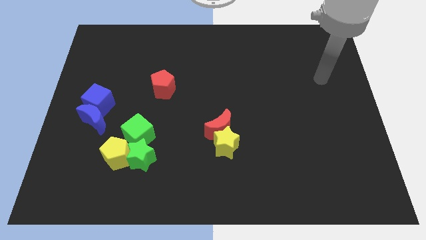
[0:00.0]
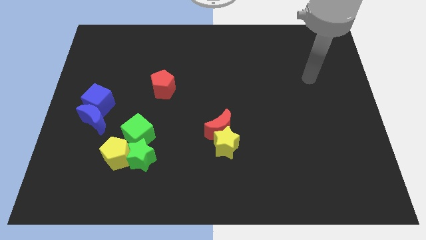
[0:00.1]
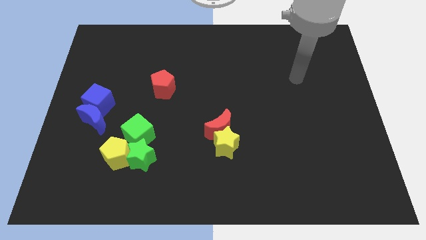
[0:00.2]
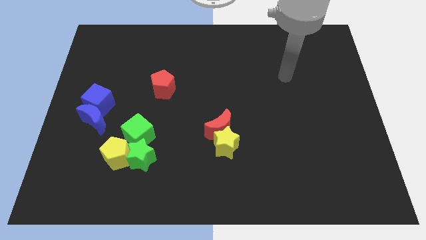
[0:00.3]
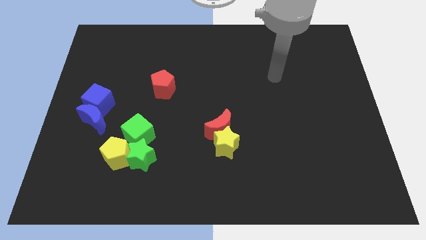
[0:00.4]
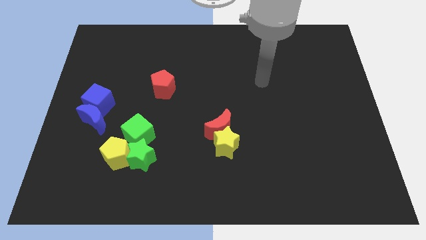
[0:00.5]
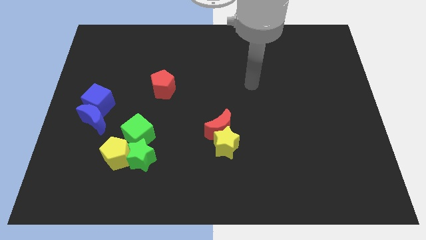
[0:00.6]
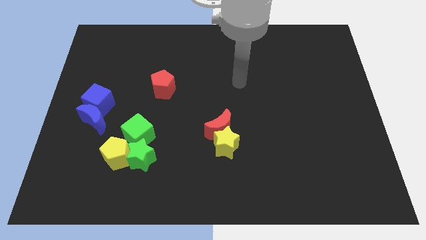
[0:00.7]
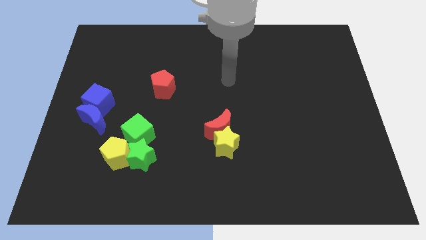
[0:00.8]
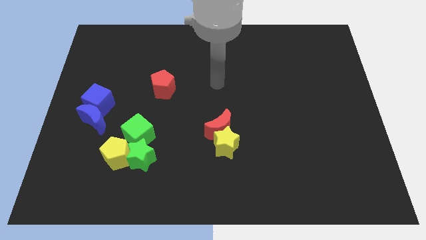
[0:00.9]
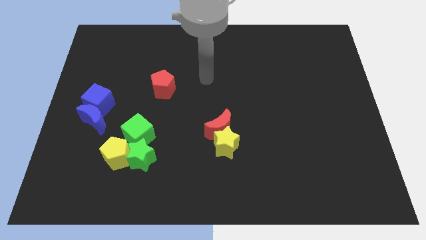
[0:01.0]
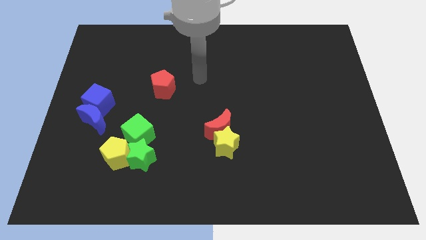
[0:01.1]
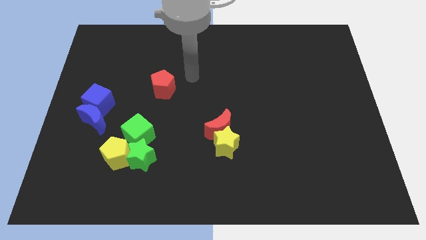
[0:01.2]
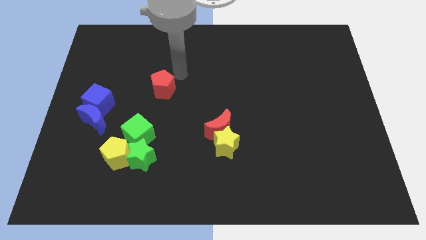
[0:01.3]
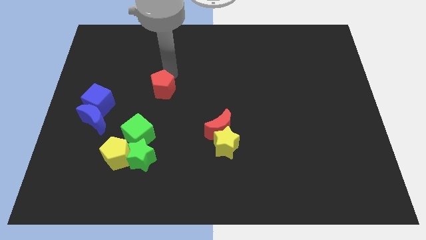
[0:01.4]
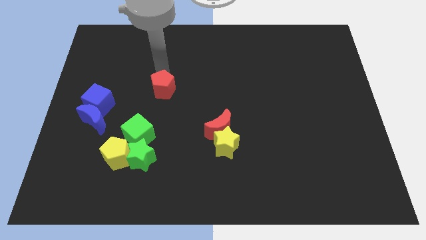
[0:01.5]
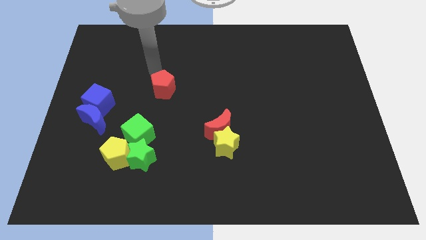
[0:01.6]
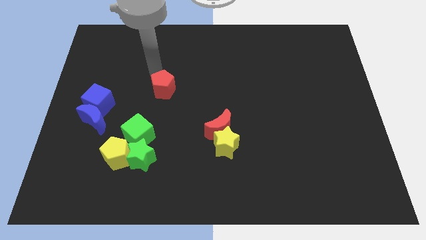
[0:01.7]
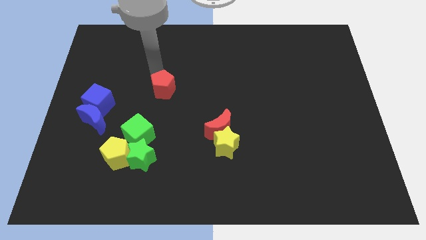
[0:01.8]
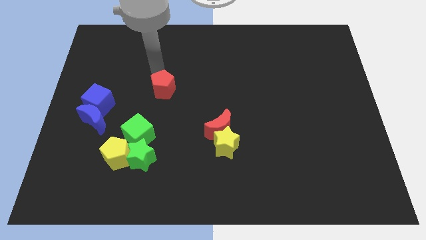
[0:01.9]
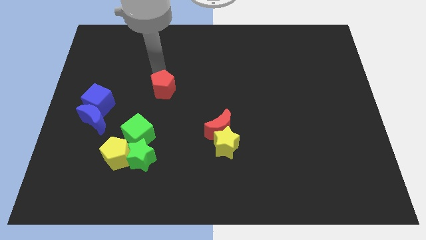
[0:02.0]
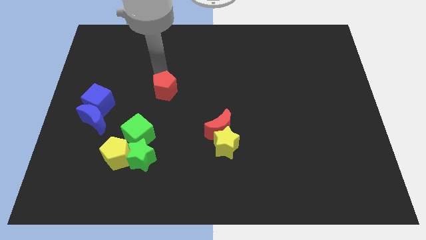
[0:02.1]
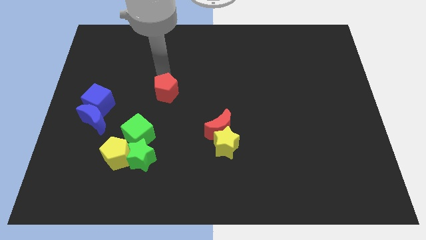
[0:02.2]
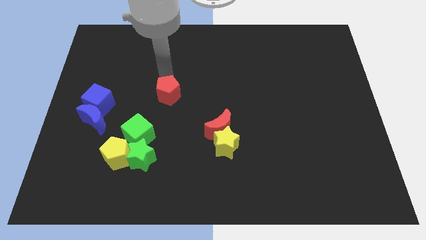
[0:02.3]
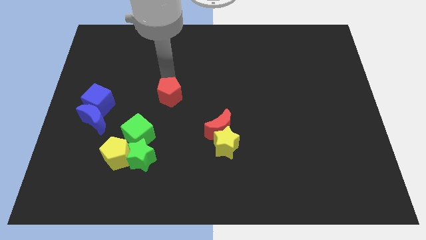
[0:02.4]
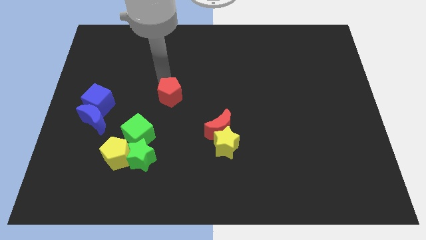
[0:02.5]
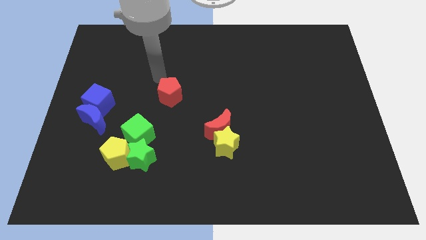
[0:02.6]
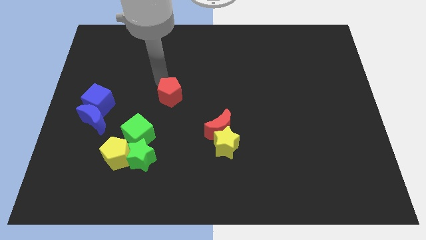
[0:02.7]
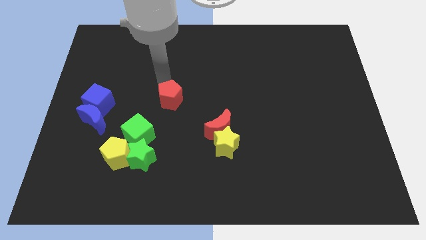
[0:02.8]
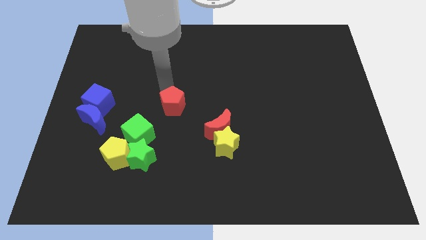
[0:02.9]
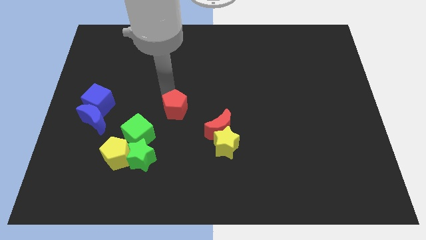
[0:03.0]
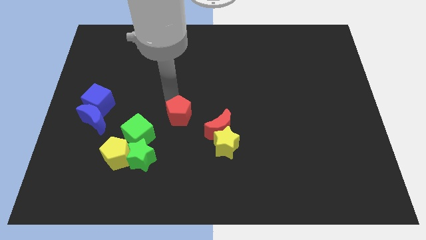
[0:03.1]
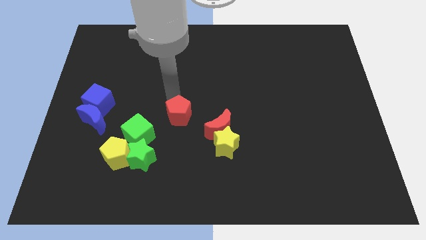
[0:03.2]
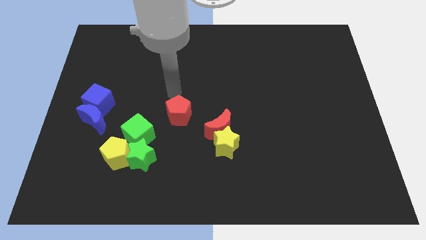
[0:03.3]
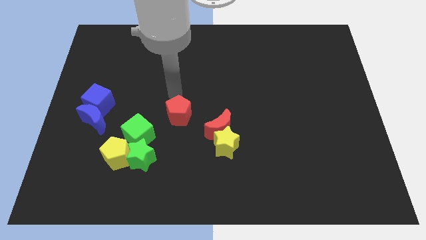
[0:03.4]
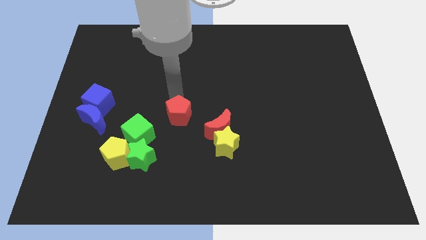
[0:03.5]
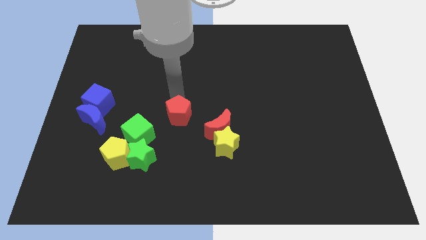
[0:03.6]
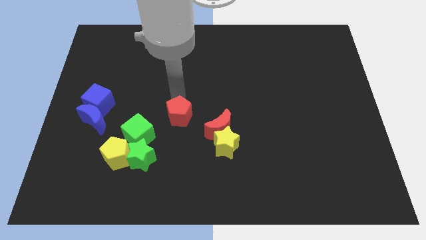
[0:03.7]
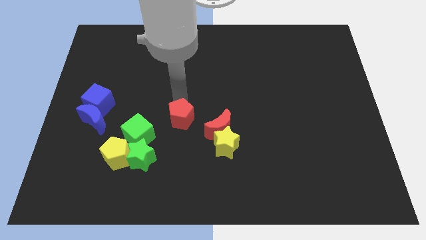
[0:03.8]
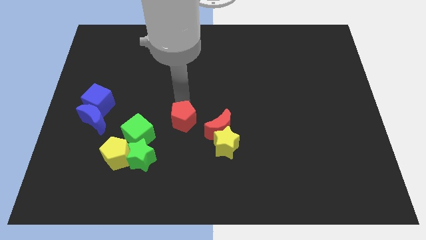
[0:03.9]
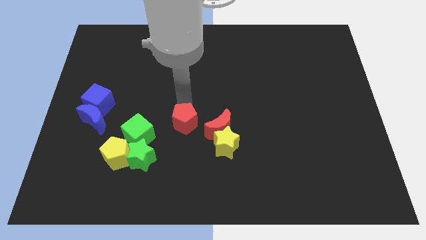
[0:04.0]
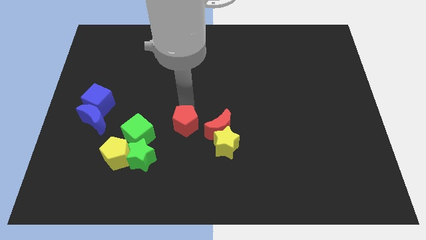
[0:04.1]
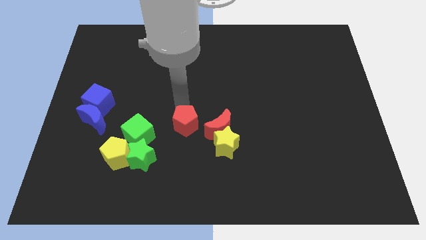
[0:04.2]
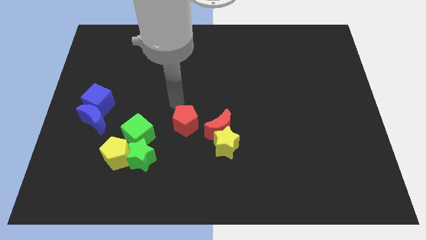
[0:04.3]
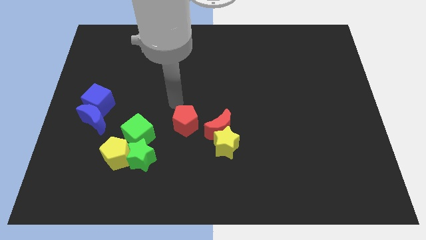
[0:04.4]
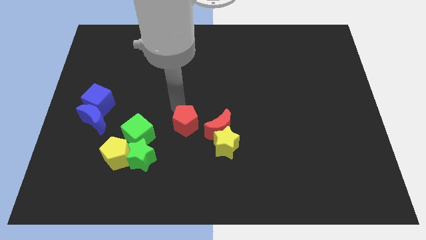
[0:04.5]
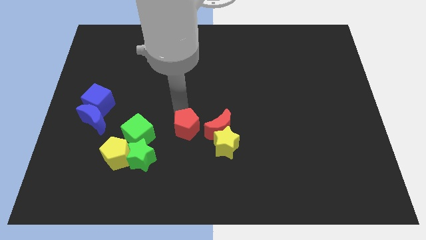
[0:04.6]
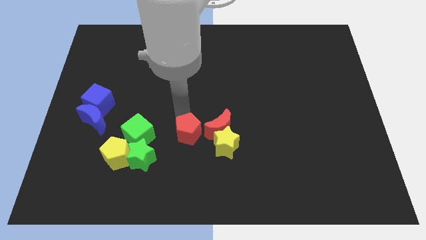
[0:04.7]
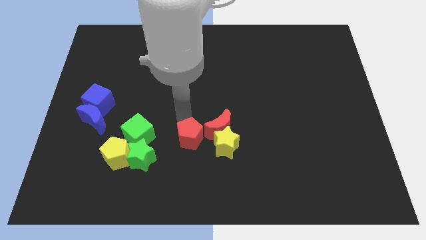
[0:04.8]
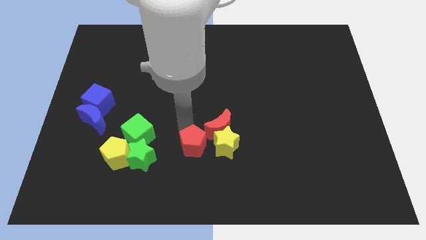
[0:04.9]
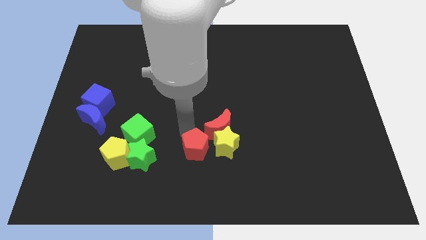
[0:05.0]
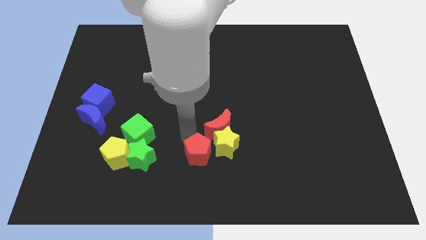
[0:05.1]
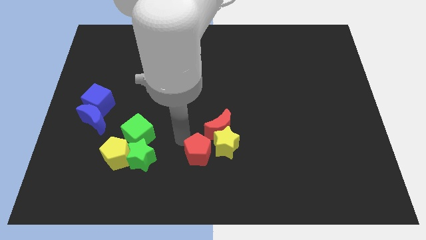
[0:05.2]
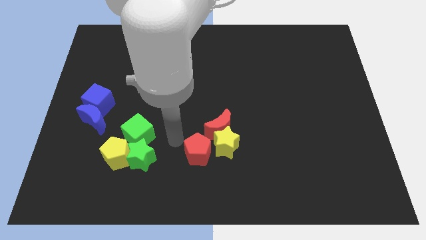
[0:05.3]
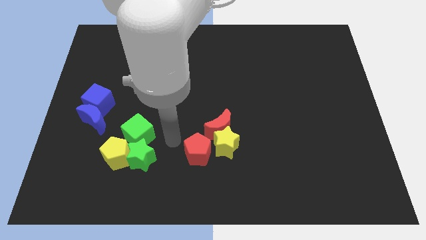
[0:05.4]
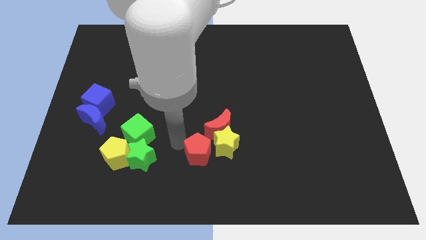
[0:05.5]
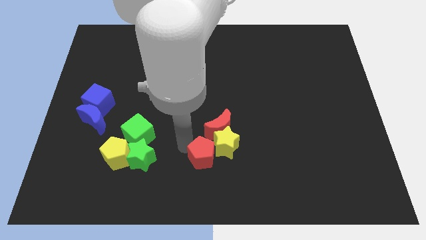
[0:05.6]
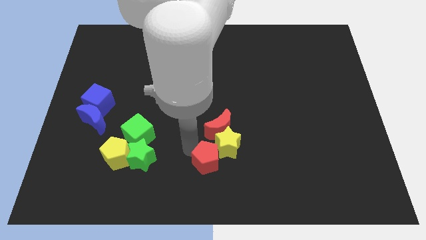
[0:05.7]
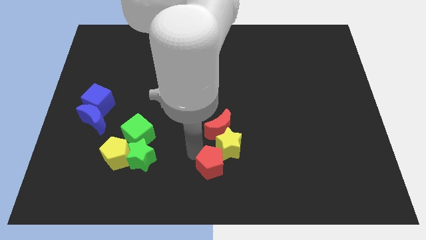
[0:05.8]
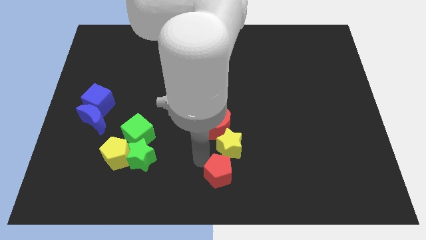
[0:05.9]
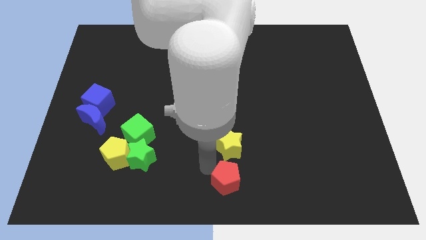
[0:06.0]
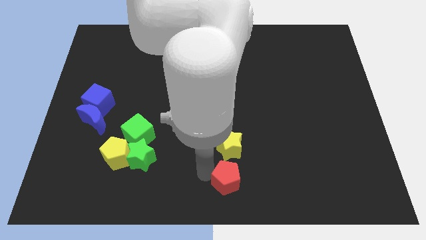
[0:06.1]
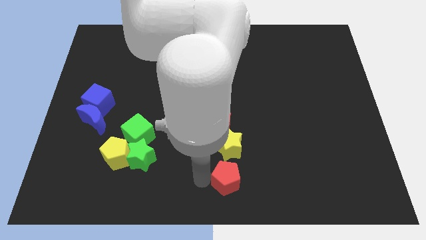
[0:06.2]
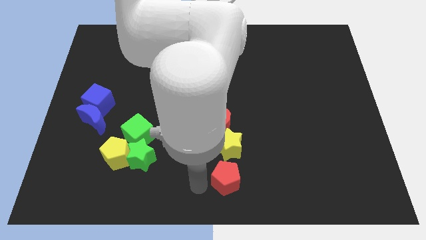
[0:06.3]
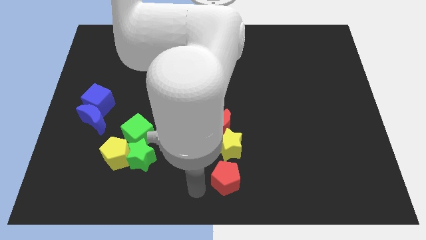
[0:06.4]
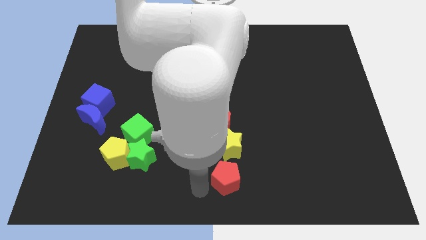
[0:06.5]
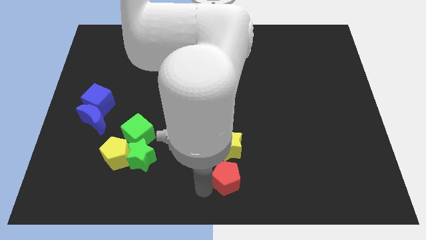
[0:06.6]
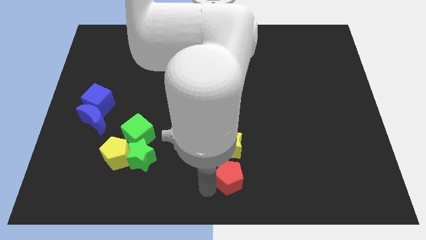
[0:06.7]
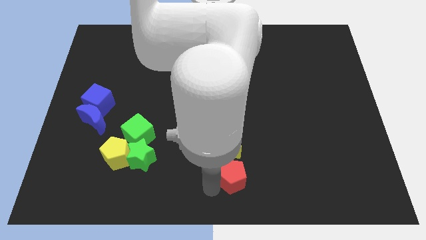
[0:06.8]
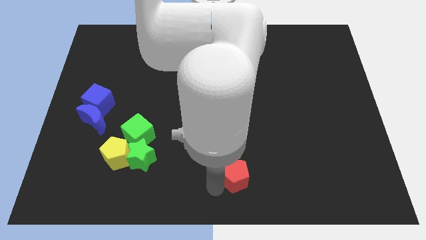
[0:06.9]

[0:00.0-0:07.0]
slide the red pentagon to the bottom right of the yellow star
